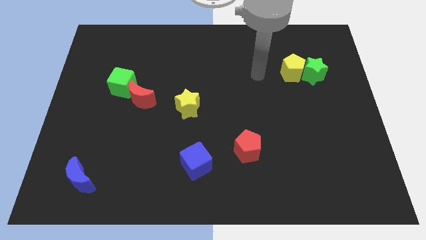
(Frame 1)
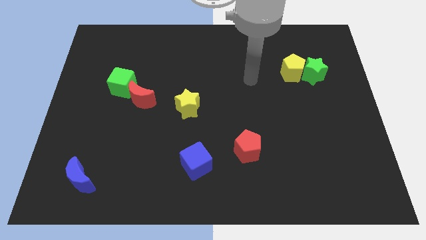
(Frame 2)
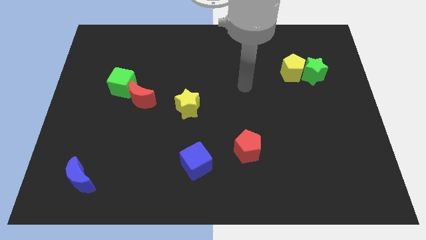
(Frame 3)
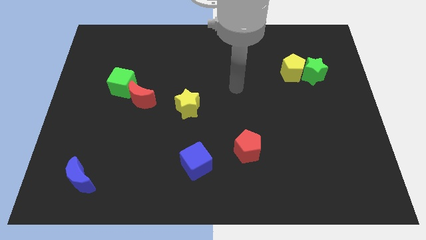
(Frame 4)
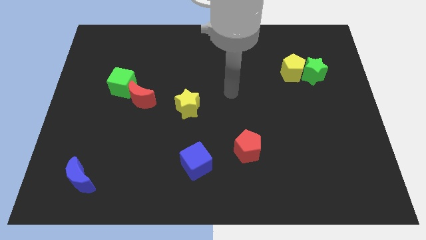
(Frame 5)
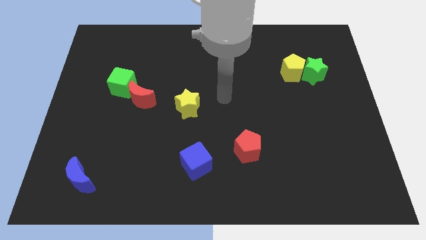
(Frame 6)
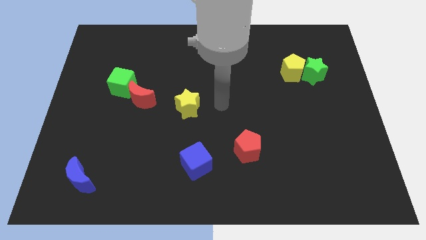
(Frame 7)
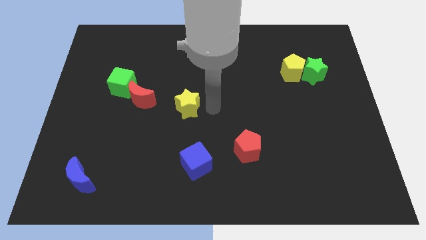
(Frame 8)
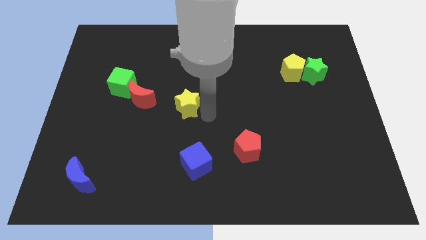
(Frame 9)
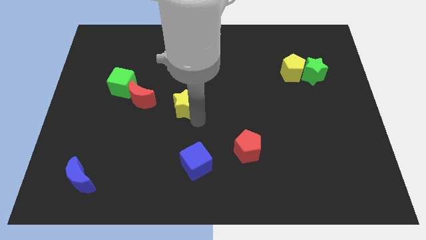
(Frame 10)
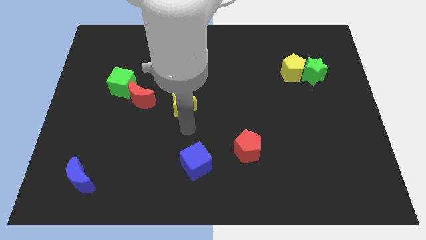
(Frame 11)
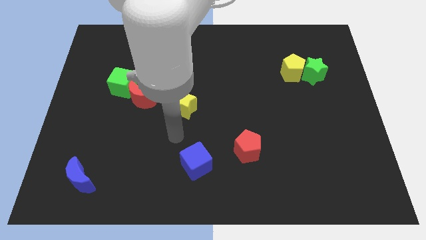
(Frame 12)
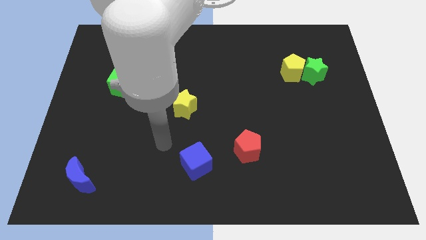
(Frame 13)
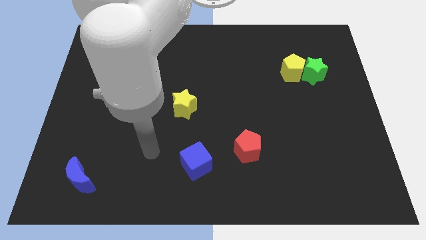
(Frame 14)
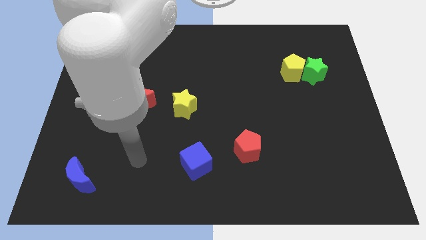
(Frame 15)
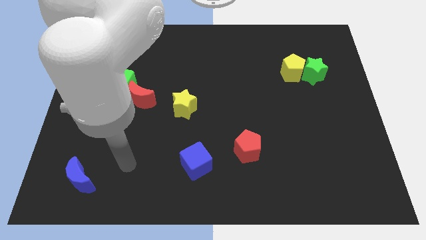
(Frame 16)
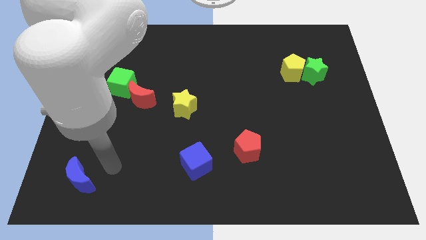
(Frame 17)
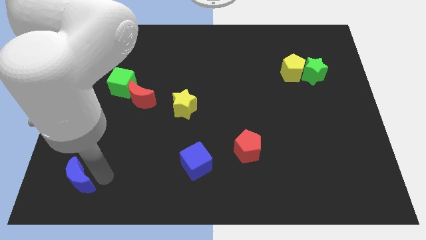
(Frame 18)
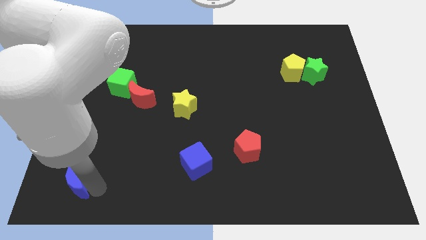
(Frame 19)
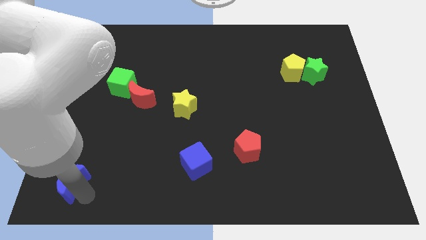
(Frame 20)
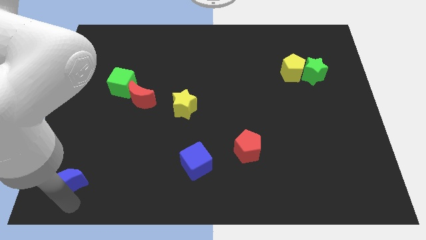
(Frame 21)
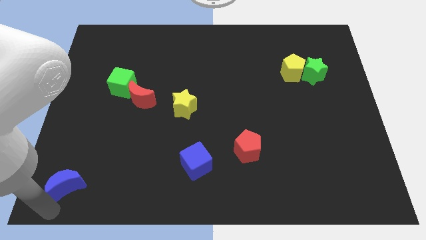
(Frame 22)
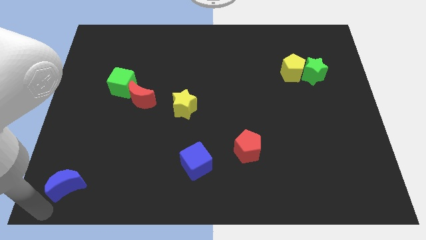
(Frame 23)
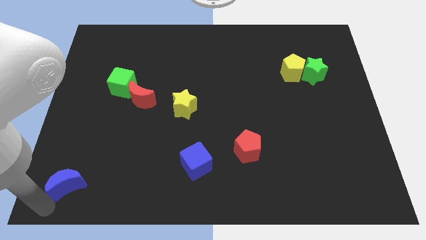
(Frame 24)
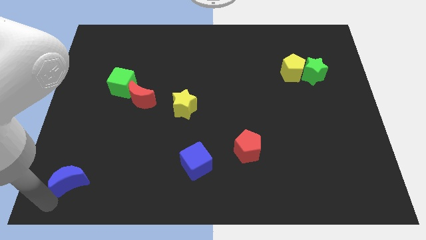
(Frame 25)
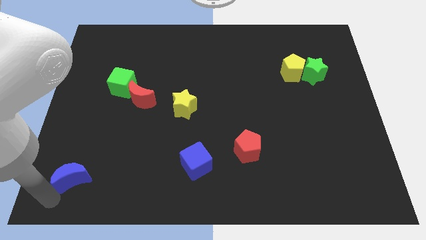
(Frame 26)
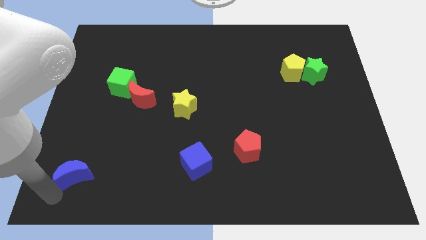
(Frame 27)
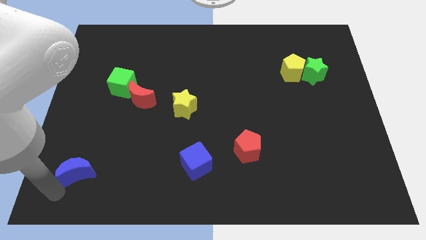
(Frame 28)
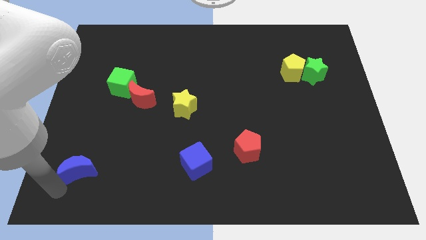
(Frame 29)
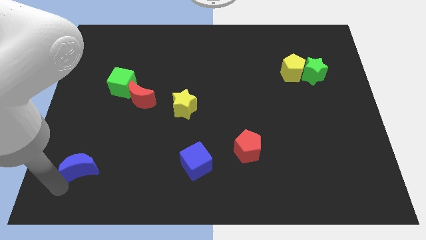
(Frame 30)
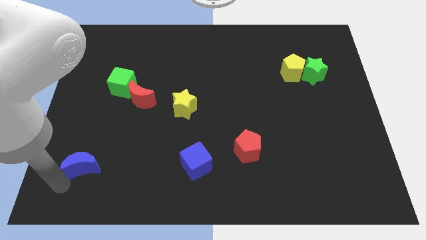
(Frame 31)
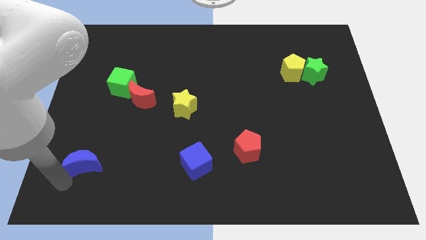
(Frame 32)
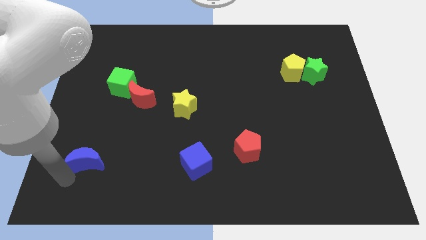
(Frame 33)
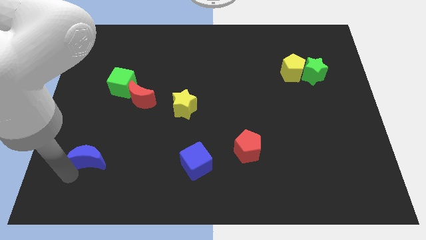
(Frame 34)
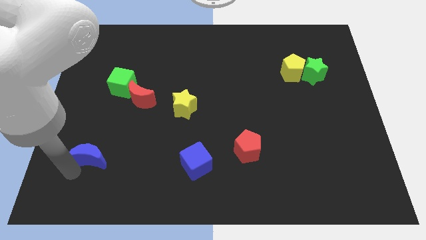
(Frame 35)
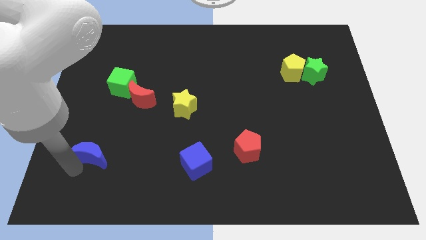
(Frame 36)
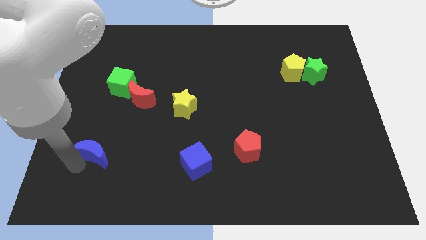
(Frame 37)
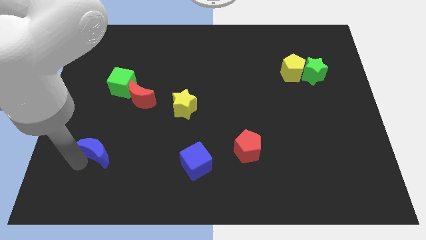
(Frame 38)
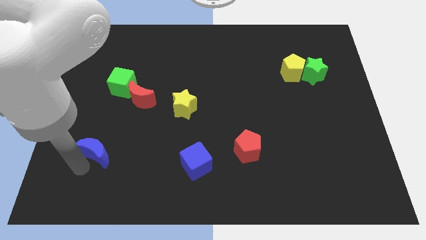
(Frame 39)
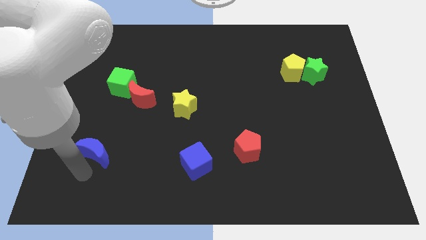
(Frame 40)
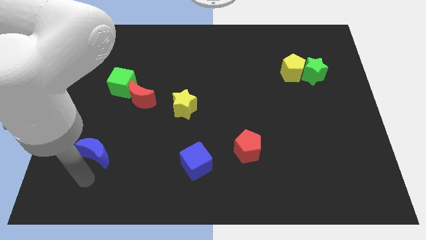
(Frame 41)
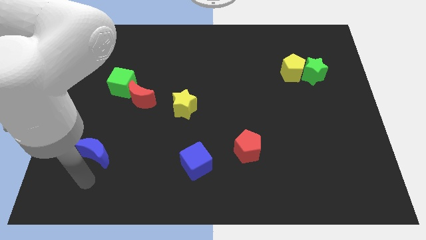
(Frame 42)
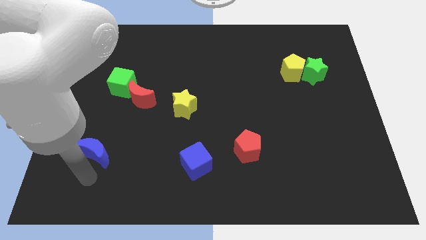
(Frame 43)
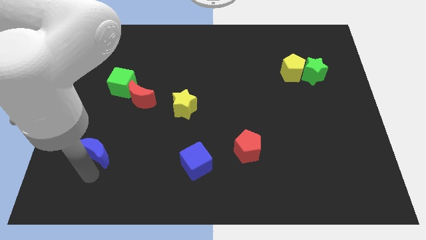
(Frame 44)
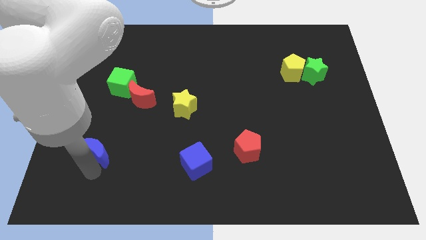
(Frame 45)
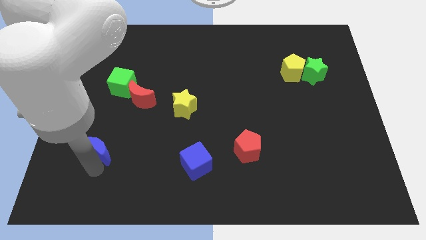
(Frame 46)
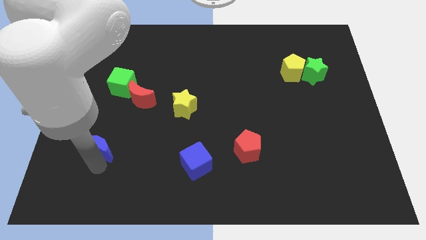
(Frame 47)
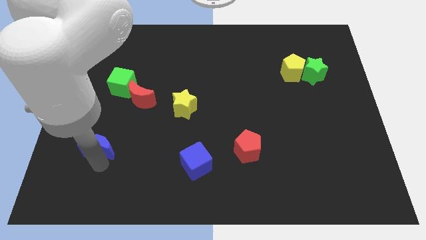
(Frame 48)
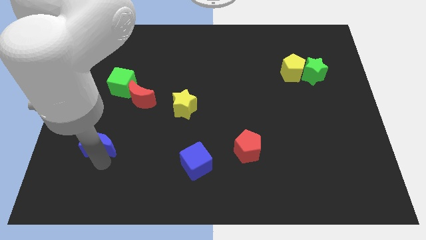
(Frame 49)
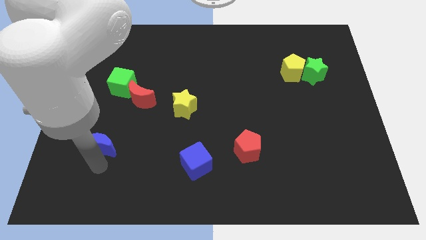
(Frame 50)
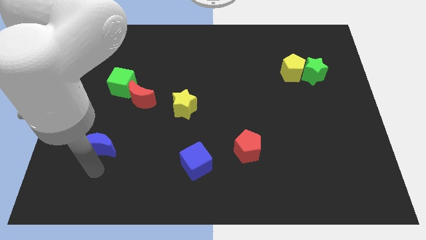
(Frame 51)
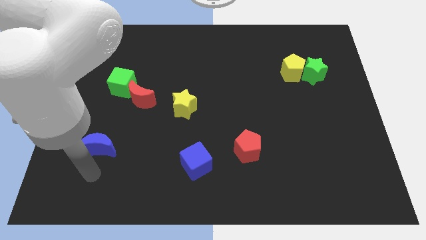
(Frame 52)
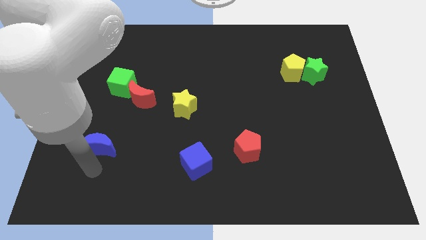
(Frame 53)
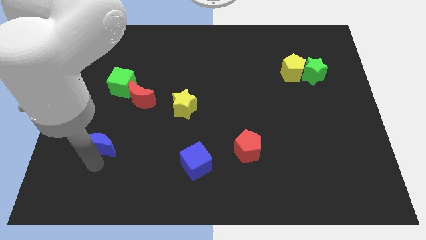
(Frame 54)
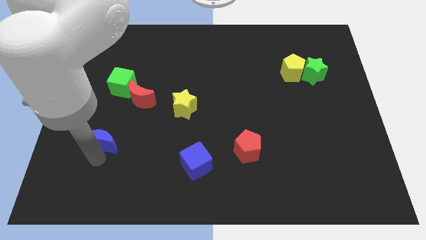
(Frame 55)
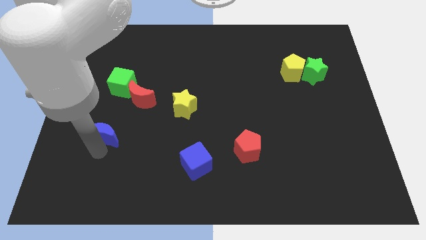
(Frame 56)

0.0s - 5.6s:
push the blue moon to the bottom side of the green cube

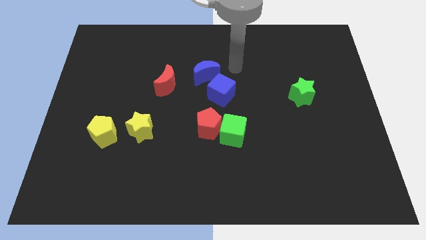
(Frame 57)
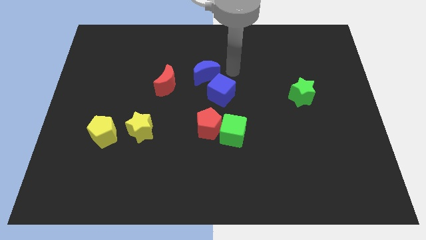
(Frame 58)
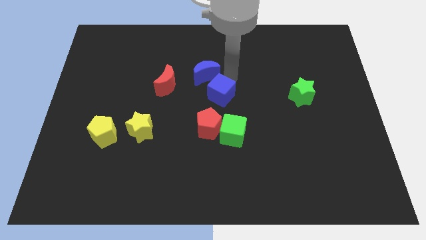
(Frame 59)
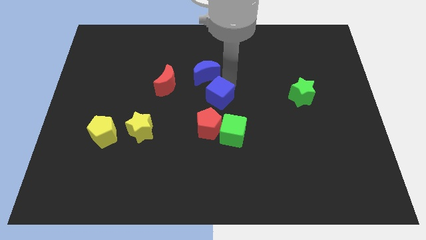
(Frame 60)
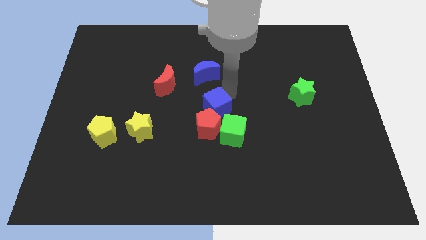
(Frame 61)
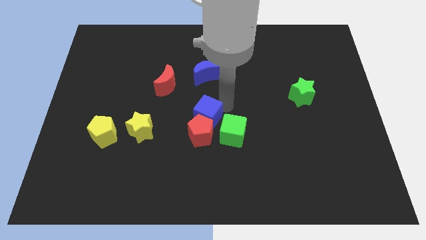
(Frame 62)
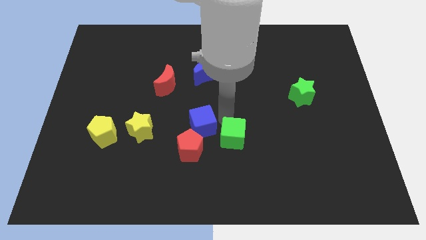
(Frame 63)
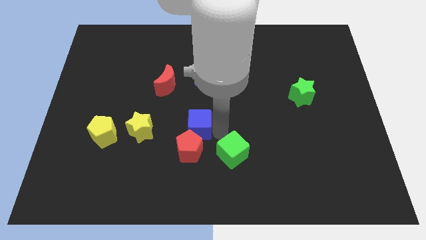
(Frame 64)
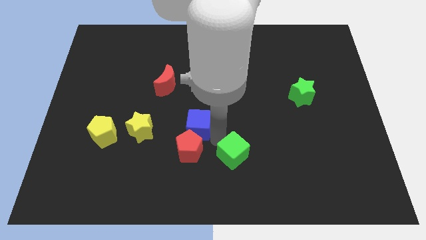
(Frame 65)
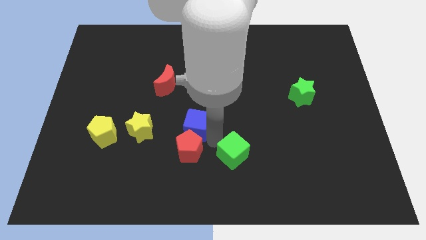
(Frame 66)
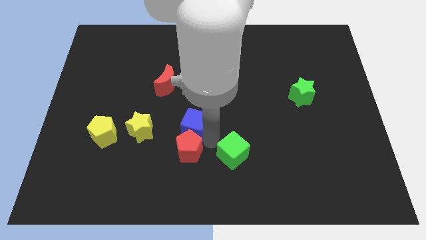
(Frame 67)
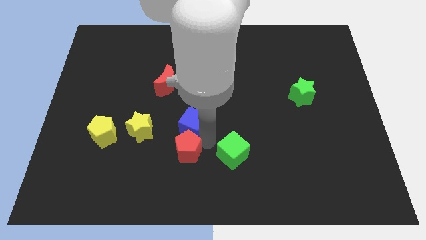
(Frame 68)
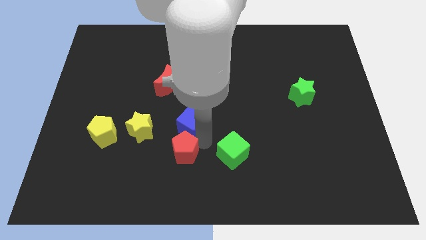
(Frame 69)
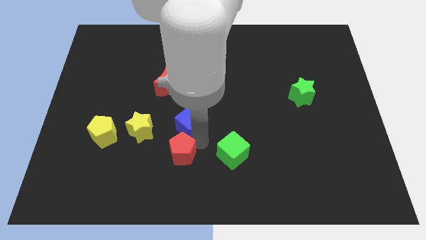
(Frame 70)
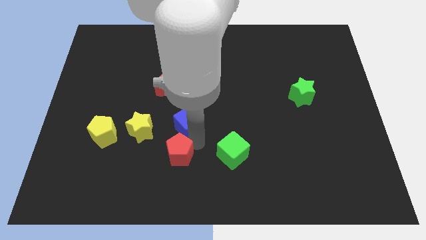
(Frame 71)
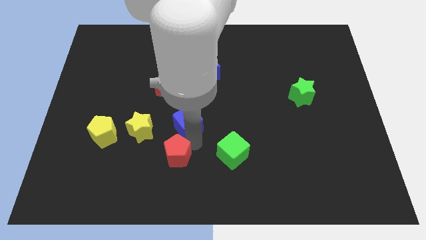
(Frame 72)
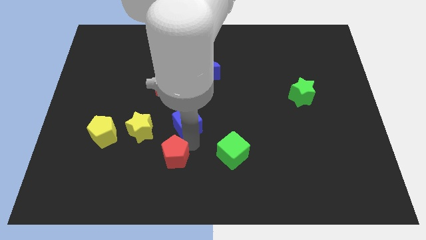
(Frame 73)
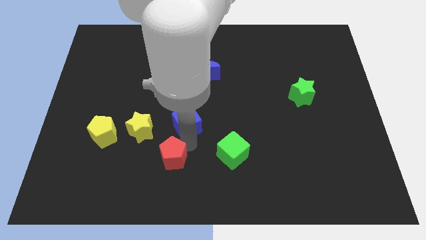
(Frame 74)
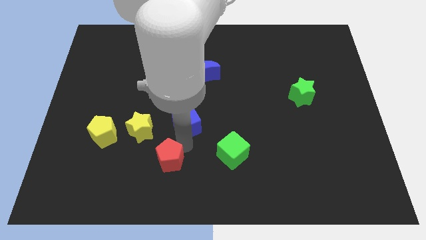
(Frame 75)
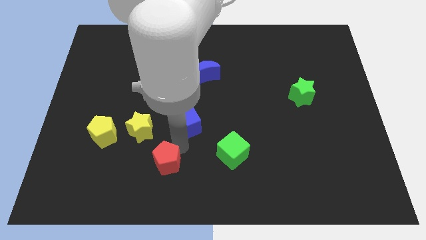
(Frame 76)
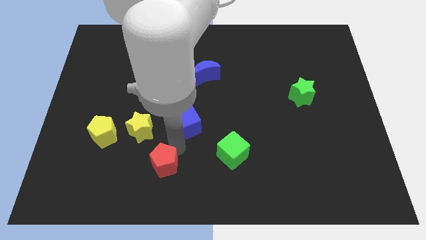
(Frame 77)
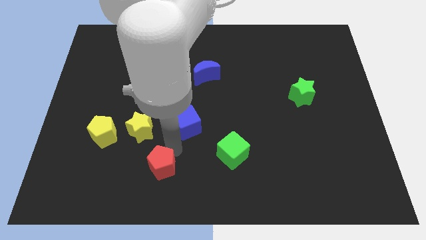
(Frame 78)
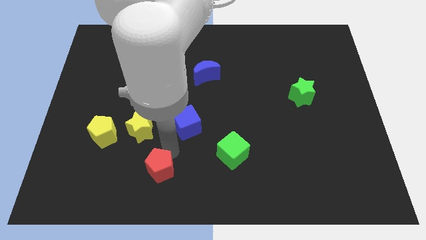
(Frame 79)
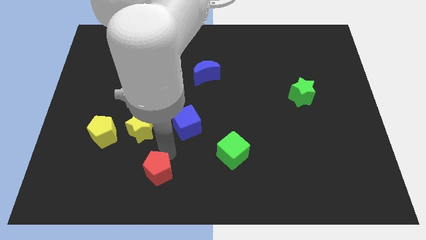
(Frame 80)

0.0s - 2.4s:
put the red pentagon to the bottom of the yellow star
